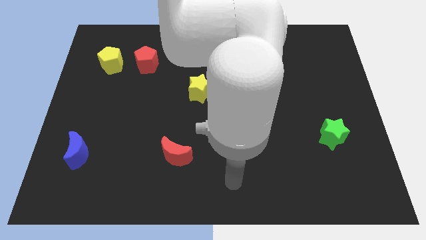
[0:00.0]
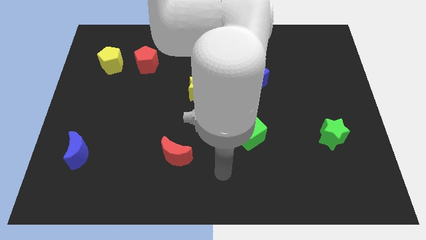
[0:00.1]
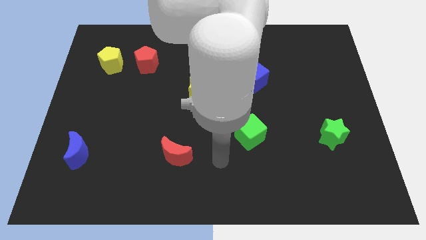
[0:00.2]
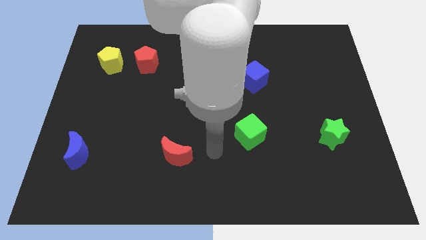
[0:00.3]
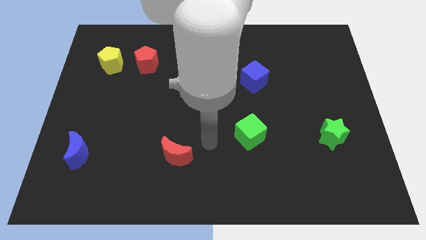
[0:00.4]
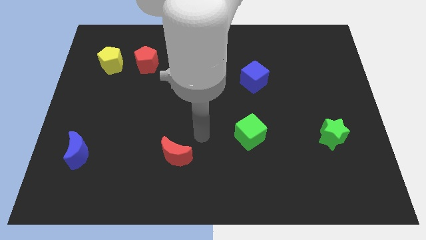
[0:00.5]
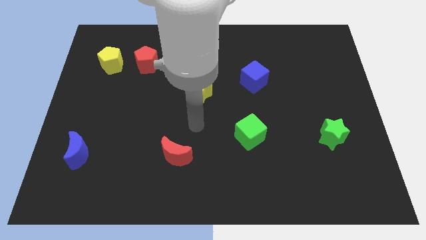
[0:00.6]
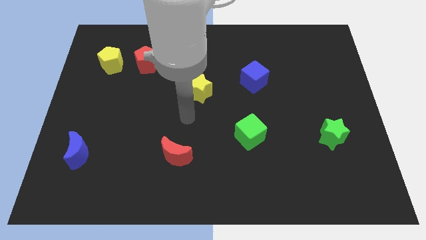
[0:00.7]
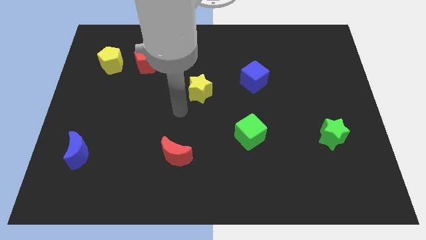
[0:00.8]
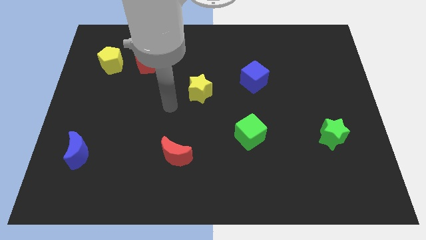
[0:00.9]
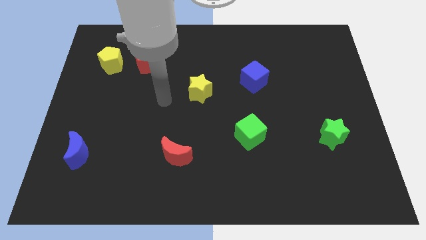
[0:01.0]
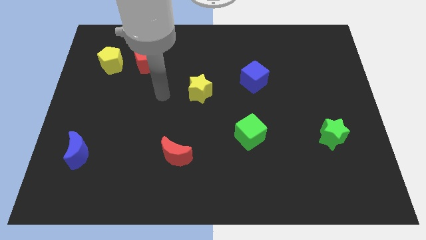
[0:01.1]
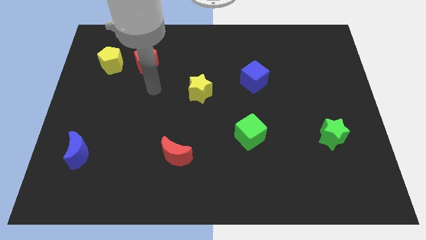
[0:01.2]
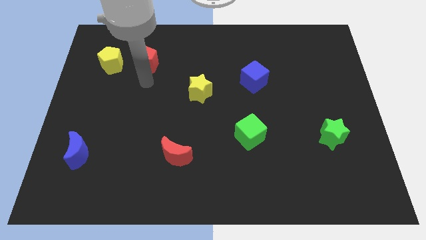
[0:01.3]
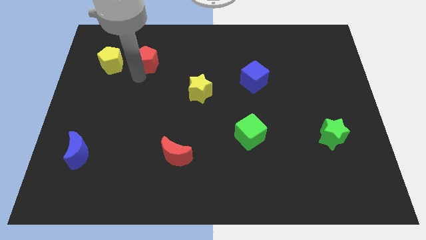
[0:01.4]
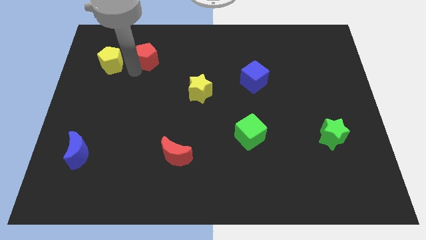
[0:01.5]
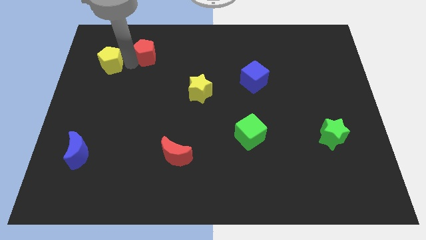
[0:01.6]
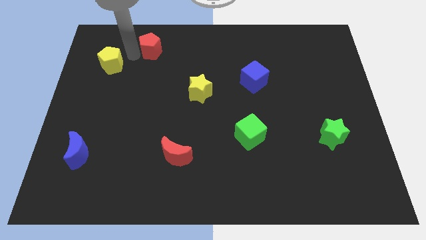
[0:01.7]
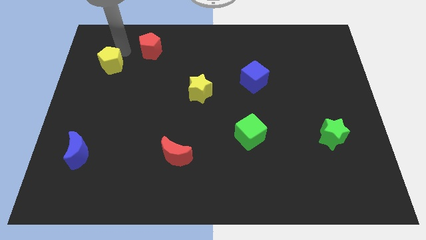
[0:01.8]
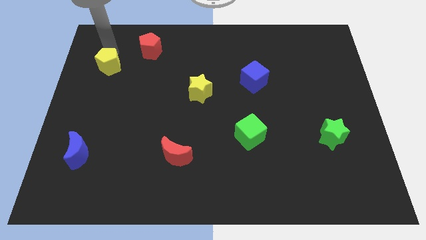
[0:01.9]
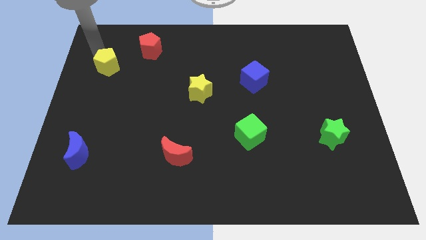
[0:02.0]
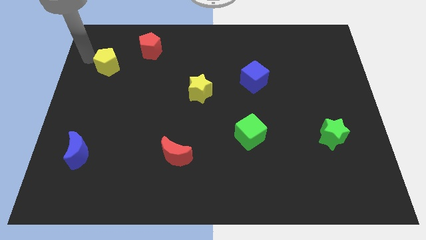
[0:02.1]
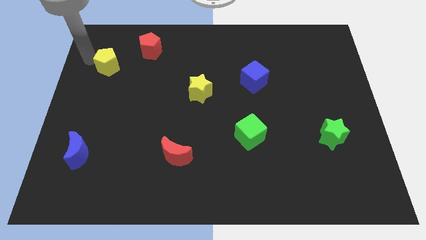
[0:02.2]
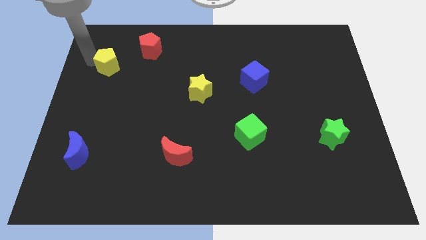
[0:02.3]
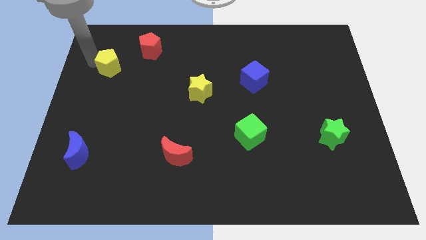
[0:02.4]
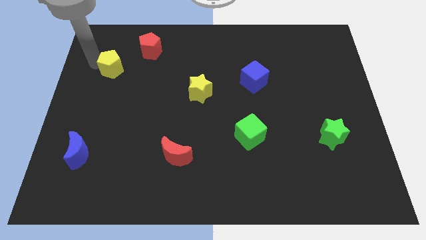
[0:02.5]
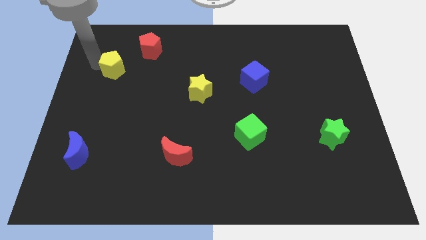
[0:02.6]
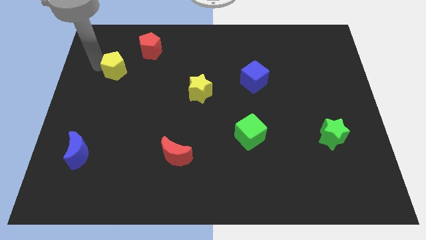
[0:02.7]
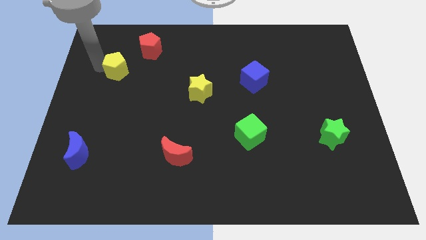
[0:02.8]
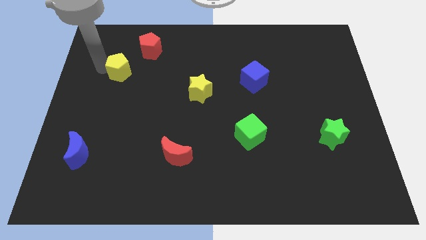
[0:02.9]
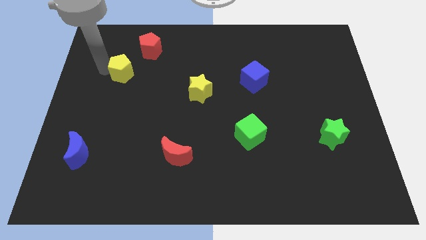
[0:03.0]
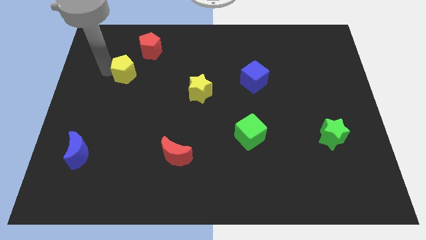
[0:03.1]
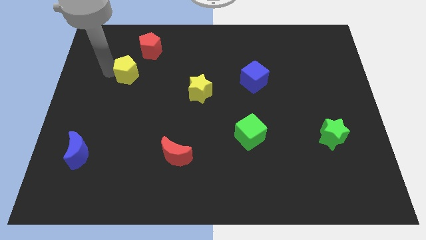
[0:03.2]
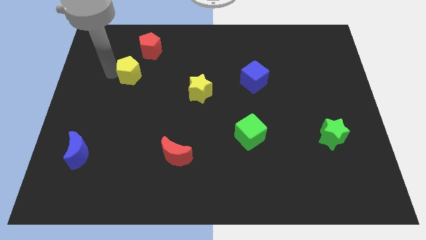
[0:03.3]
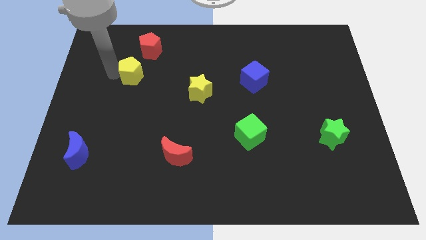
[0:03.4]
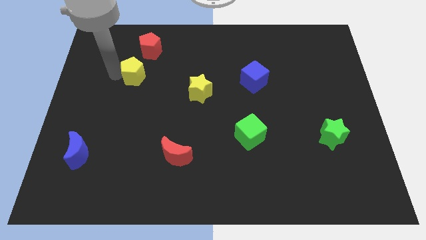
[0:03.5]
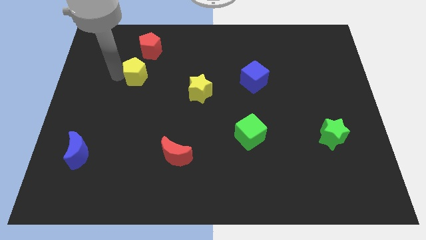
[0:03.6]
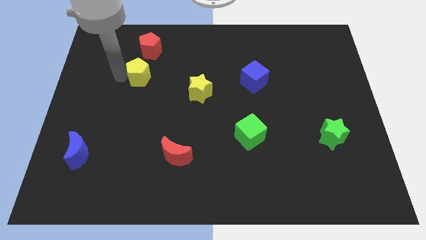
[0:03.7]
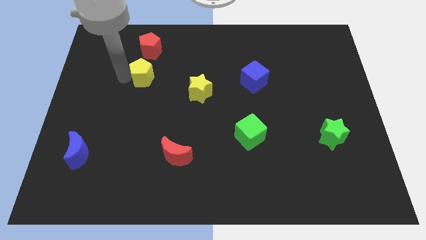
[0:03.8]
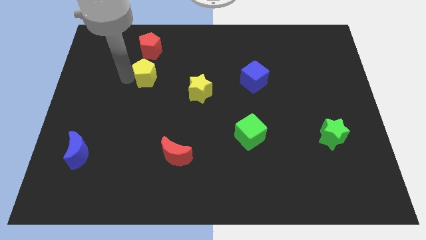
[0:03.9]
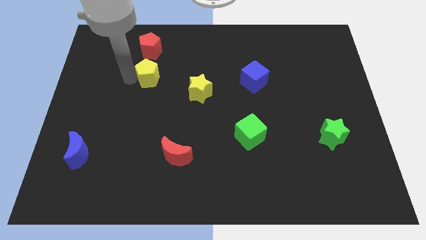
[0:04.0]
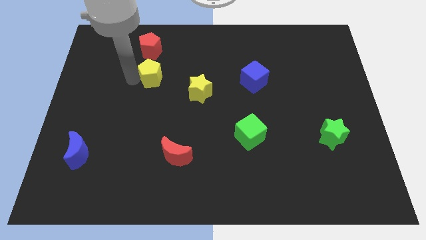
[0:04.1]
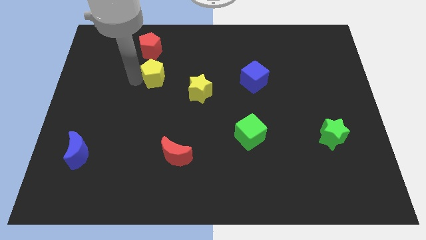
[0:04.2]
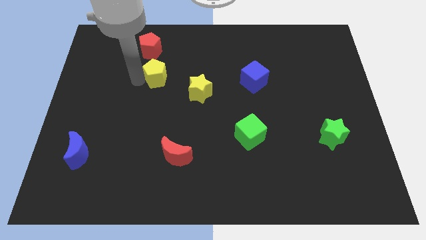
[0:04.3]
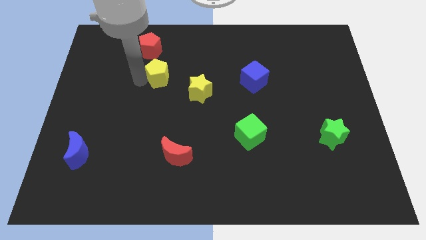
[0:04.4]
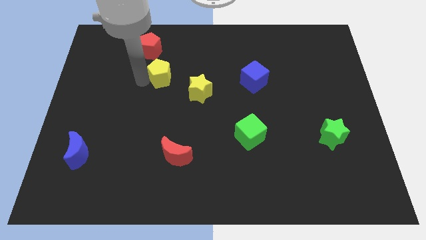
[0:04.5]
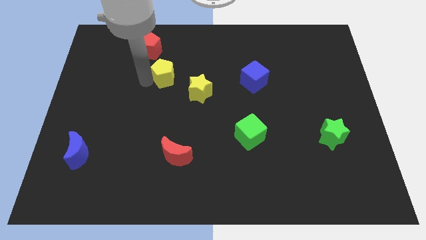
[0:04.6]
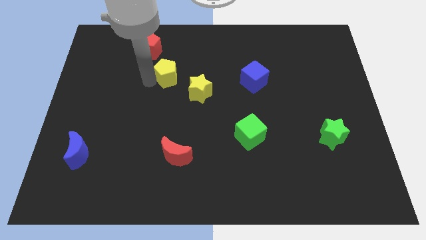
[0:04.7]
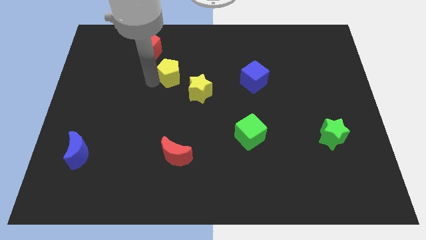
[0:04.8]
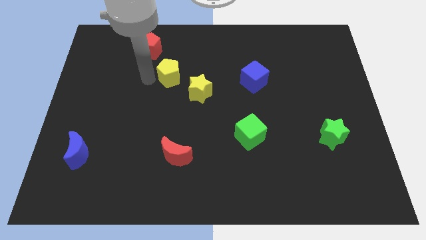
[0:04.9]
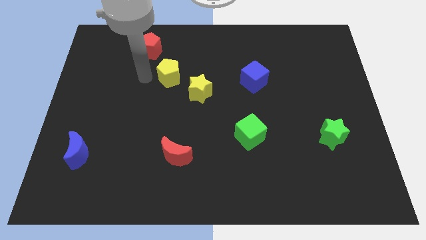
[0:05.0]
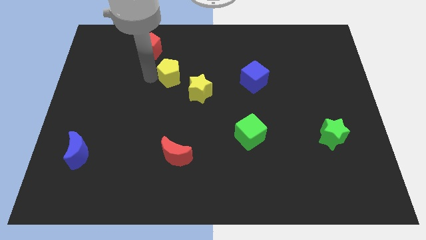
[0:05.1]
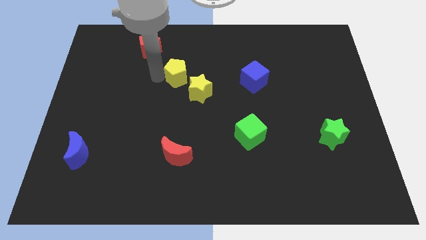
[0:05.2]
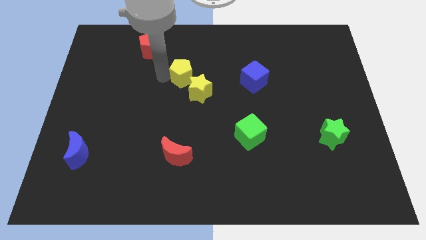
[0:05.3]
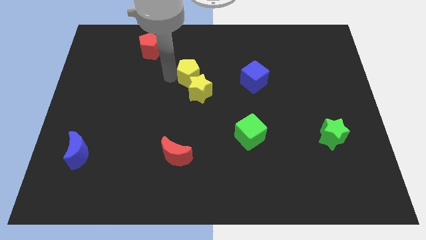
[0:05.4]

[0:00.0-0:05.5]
slide the yellow pentagon right

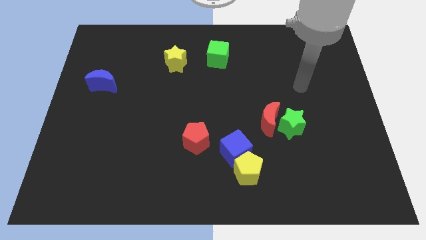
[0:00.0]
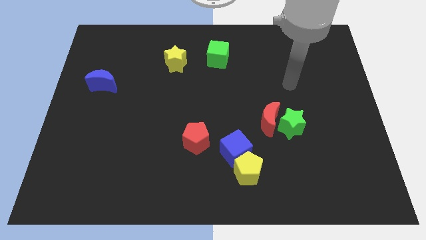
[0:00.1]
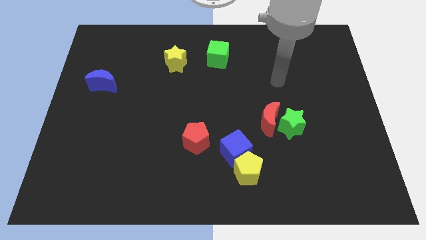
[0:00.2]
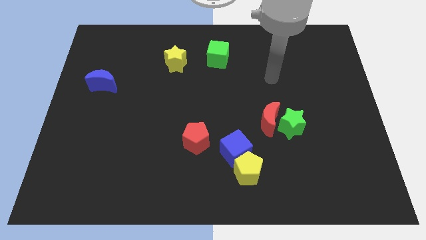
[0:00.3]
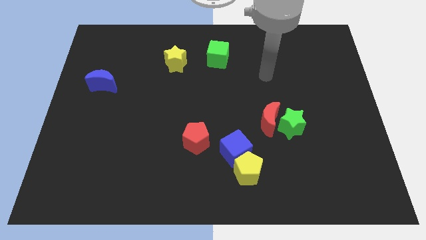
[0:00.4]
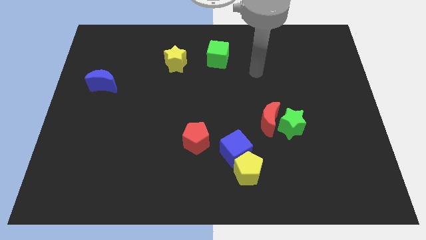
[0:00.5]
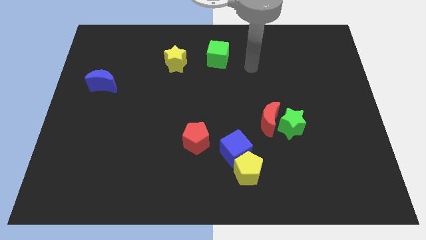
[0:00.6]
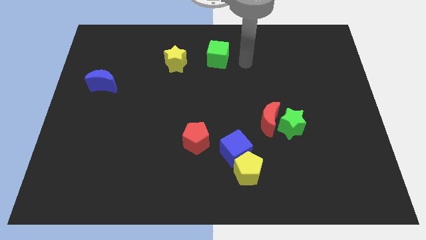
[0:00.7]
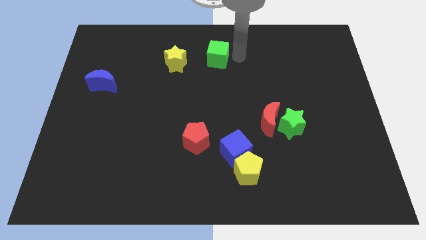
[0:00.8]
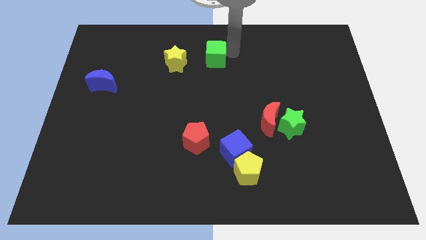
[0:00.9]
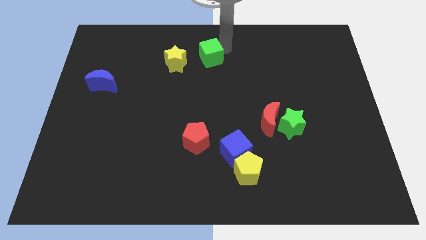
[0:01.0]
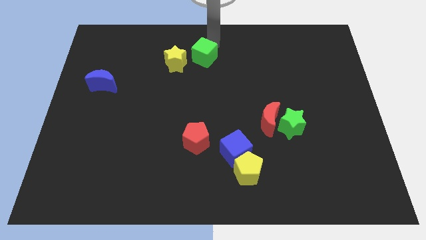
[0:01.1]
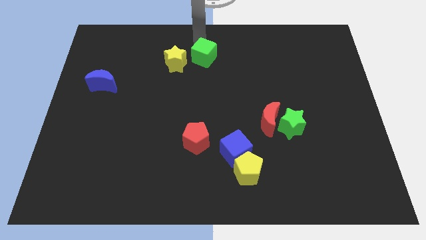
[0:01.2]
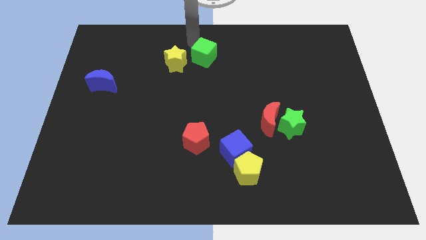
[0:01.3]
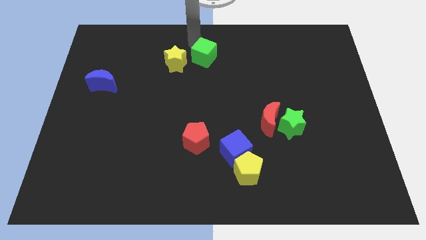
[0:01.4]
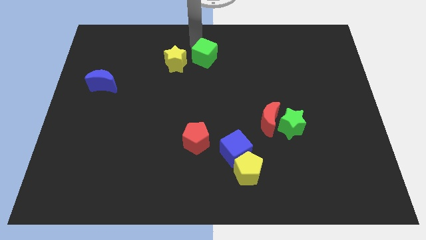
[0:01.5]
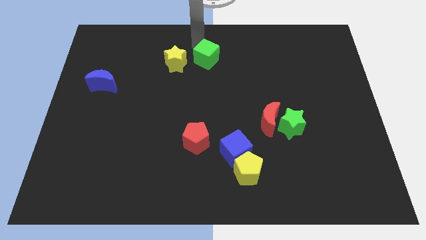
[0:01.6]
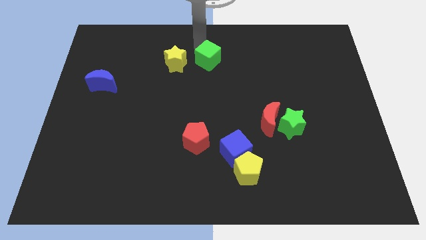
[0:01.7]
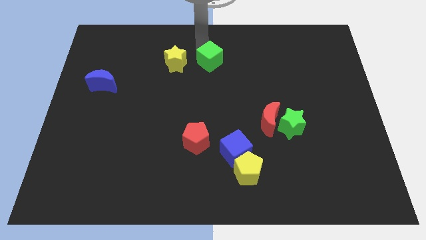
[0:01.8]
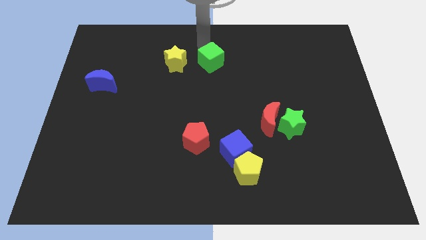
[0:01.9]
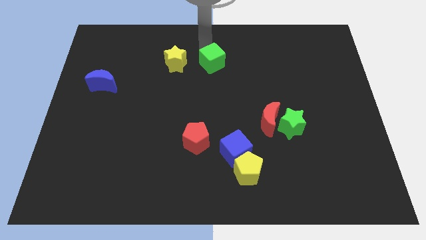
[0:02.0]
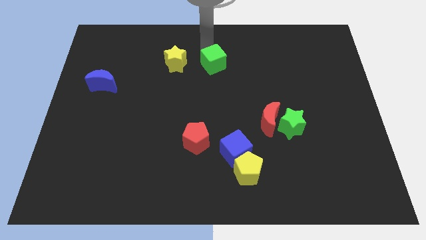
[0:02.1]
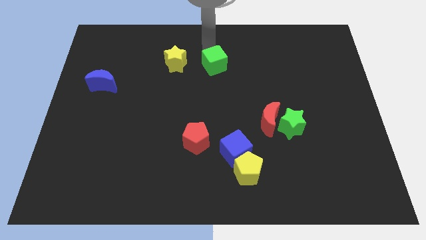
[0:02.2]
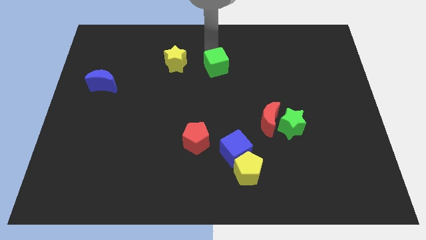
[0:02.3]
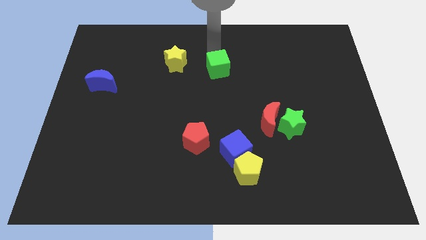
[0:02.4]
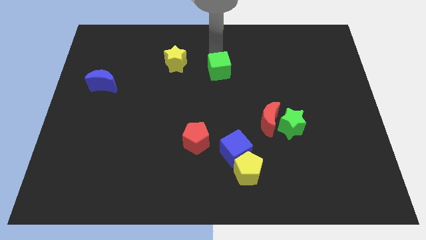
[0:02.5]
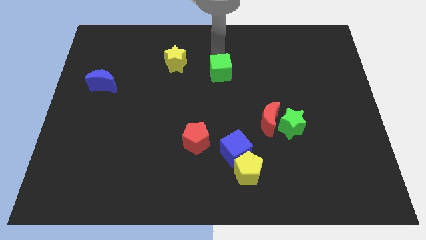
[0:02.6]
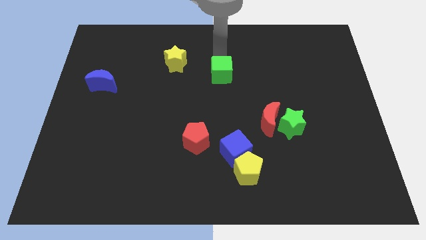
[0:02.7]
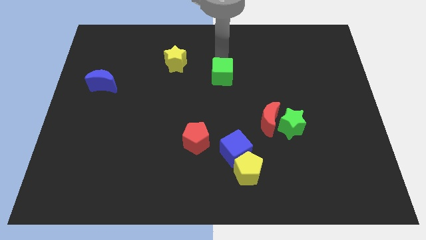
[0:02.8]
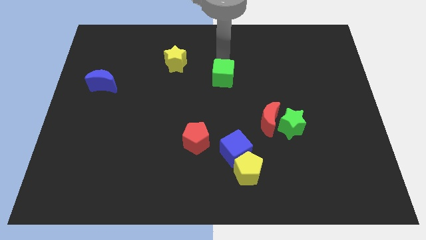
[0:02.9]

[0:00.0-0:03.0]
slide the green cube a little down
